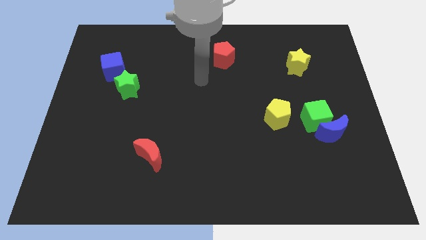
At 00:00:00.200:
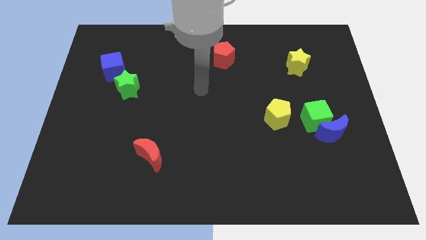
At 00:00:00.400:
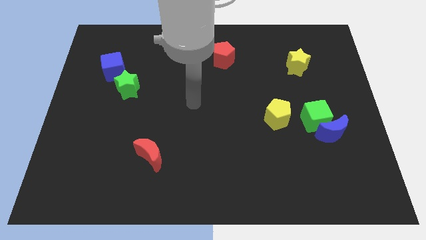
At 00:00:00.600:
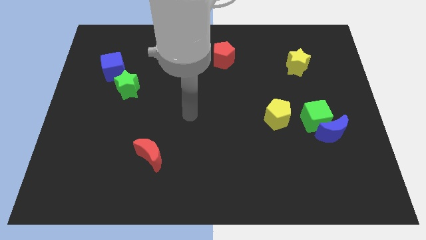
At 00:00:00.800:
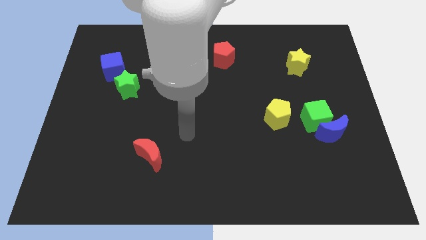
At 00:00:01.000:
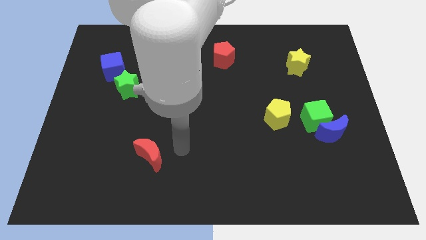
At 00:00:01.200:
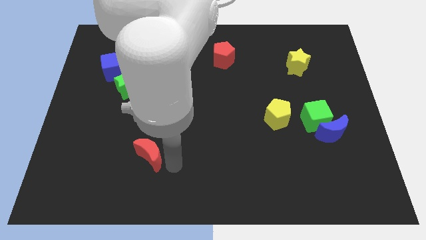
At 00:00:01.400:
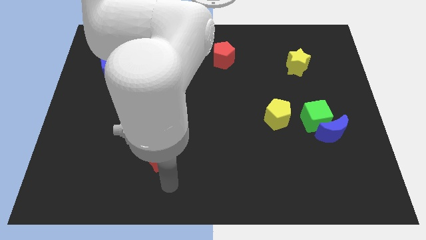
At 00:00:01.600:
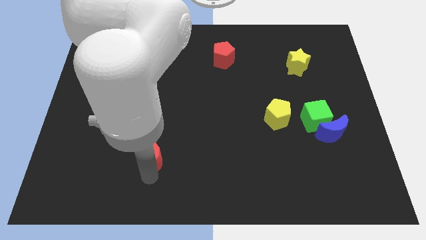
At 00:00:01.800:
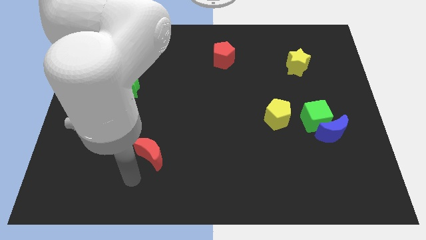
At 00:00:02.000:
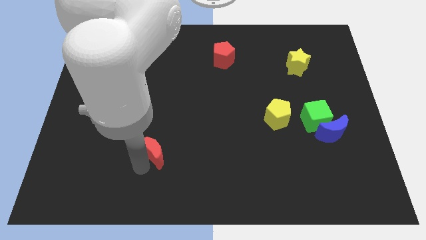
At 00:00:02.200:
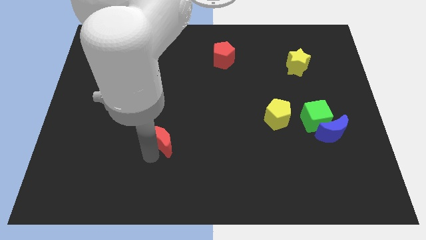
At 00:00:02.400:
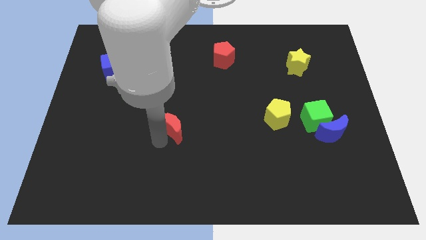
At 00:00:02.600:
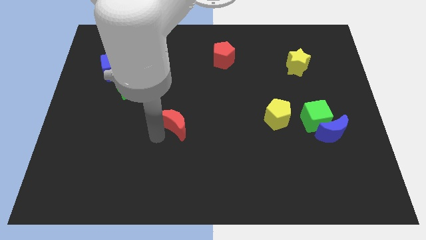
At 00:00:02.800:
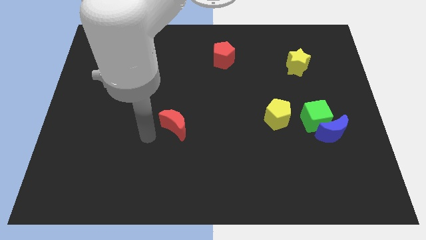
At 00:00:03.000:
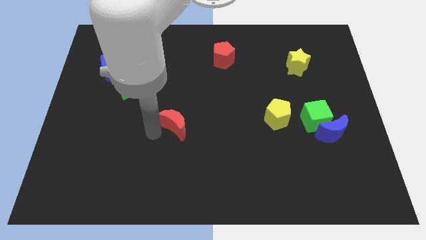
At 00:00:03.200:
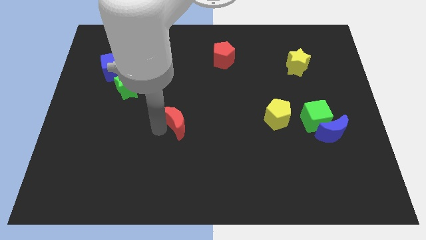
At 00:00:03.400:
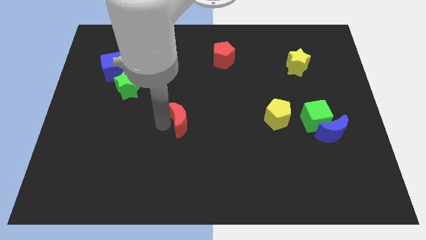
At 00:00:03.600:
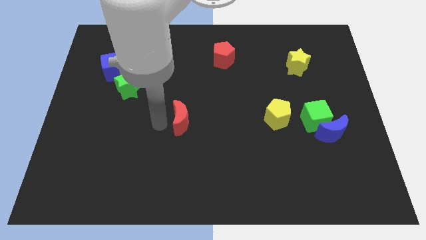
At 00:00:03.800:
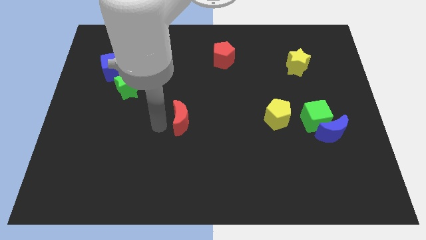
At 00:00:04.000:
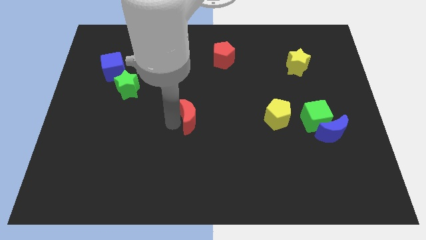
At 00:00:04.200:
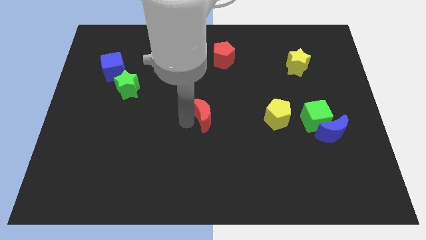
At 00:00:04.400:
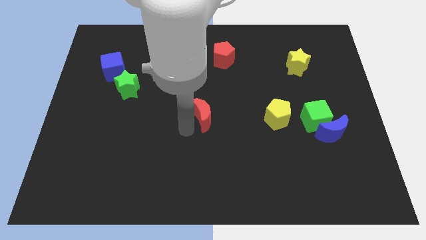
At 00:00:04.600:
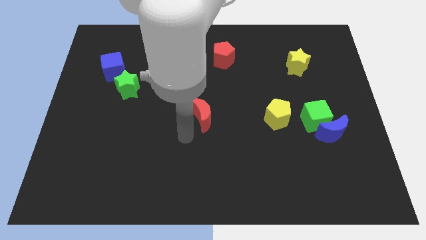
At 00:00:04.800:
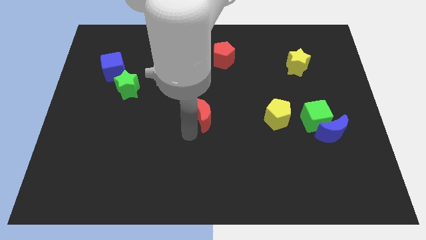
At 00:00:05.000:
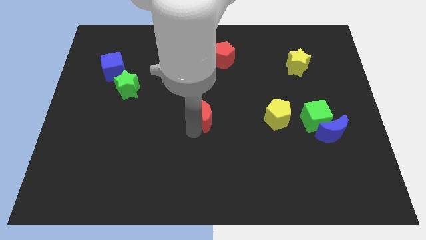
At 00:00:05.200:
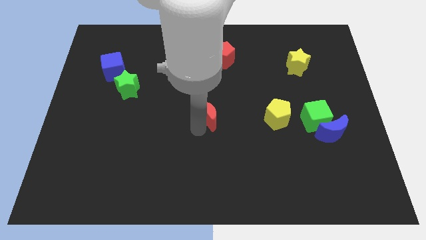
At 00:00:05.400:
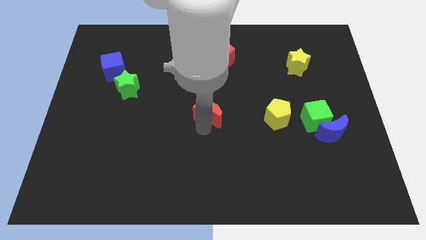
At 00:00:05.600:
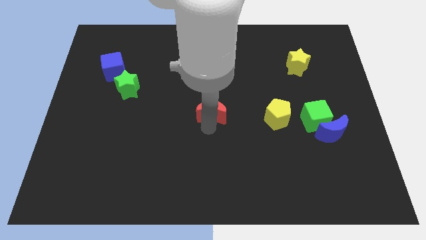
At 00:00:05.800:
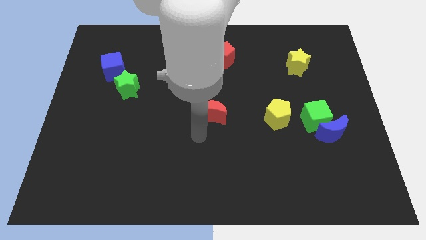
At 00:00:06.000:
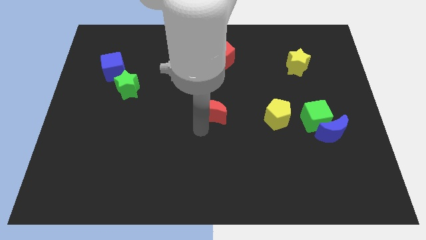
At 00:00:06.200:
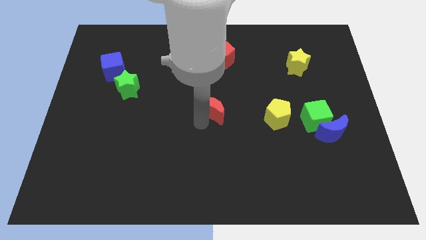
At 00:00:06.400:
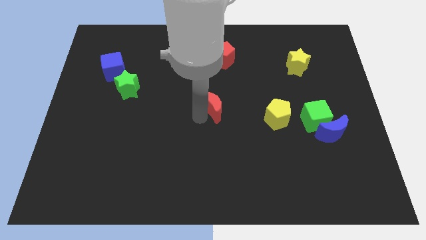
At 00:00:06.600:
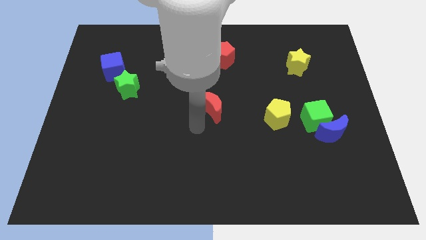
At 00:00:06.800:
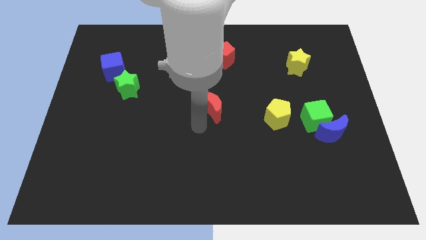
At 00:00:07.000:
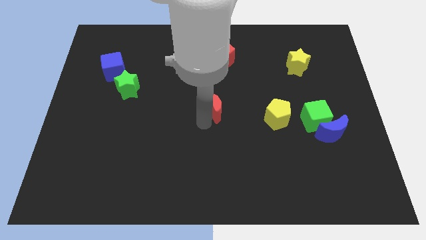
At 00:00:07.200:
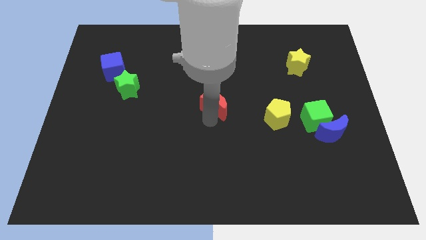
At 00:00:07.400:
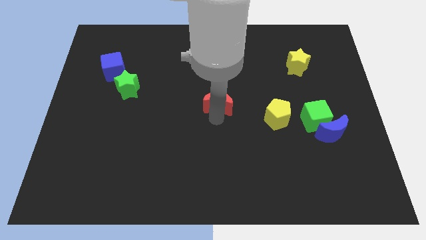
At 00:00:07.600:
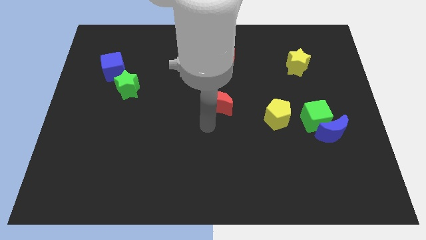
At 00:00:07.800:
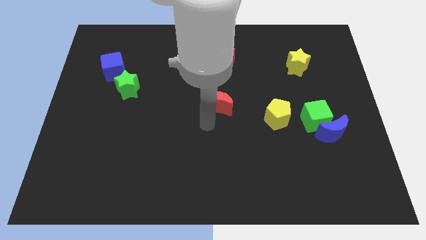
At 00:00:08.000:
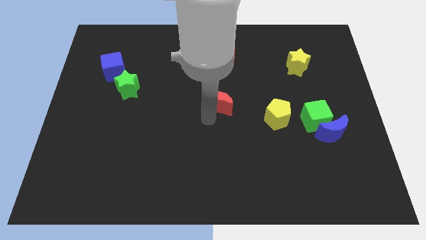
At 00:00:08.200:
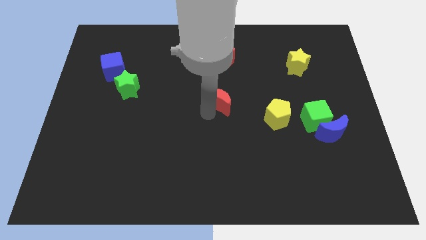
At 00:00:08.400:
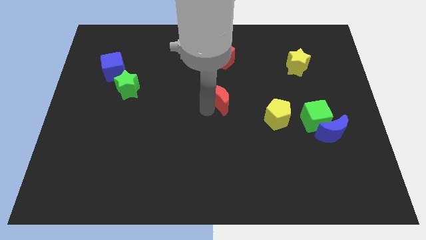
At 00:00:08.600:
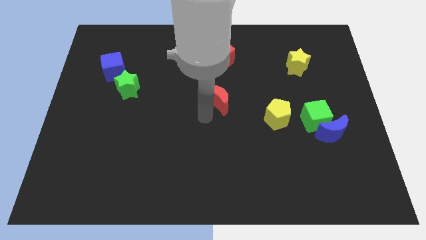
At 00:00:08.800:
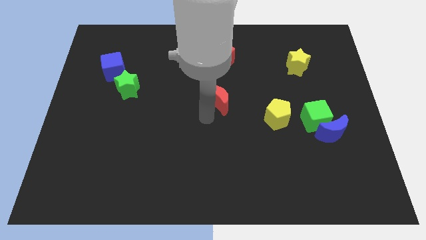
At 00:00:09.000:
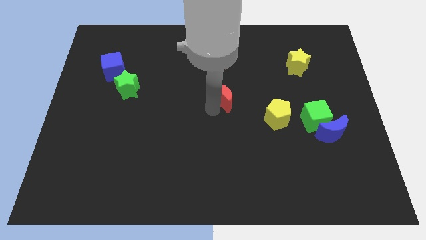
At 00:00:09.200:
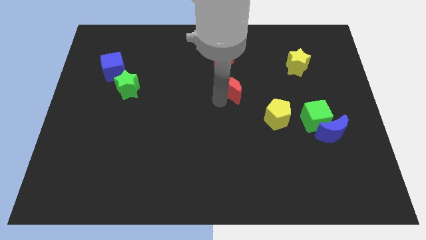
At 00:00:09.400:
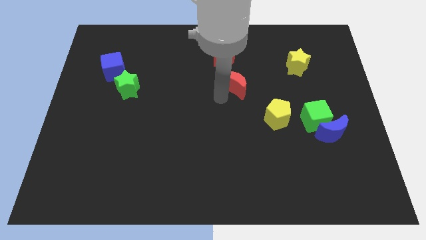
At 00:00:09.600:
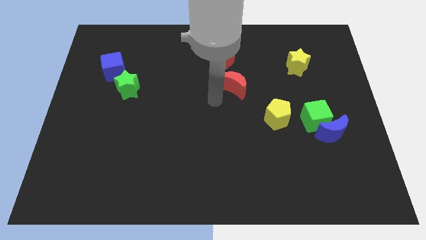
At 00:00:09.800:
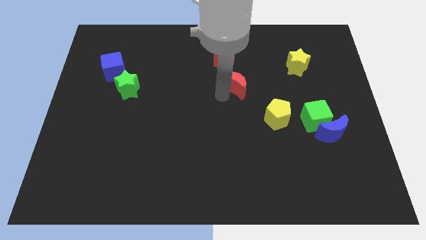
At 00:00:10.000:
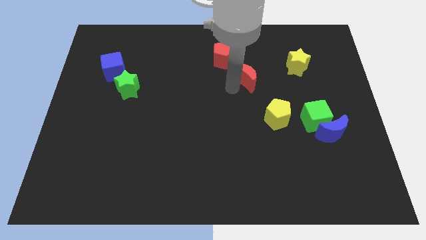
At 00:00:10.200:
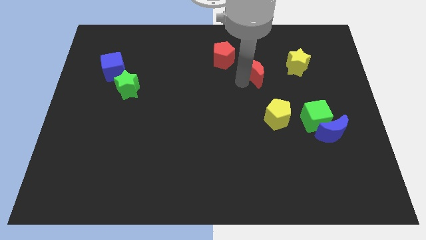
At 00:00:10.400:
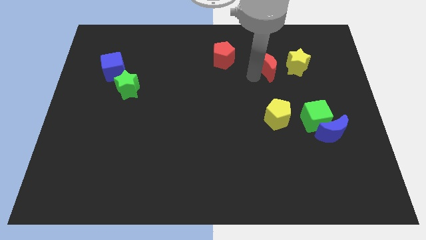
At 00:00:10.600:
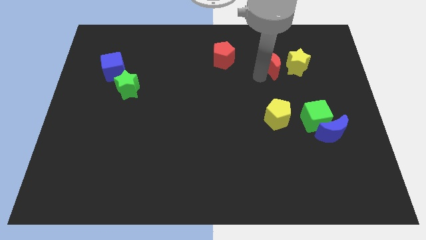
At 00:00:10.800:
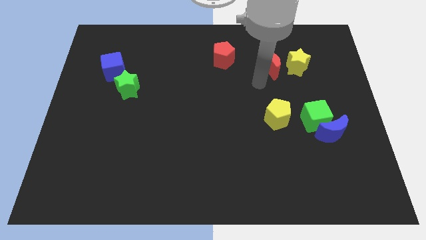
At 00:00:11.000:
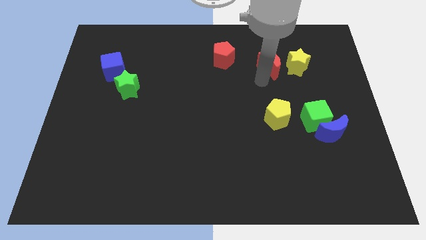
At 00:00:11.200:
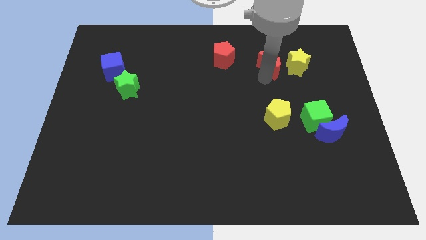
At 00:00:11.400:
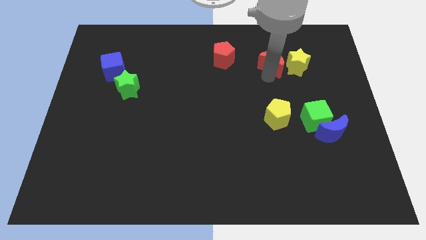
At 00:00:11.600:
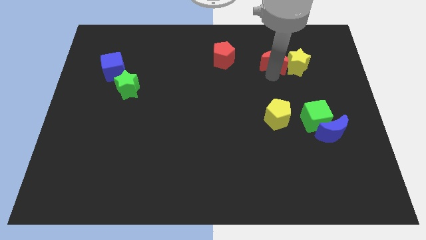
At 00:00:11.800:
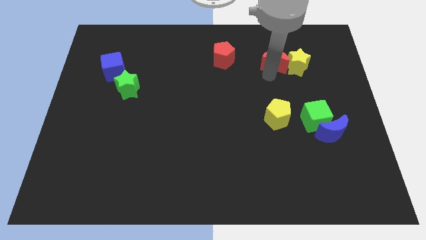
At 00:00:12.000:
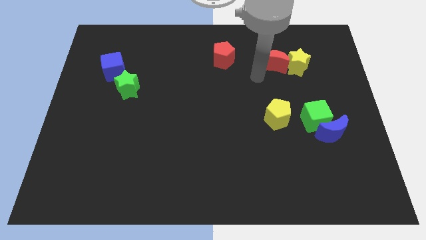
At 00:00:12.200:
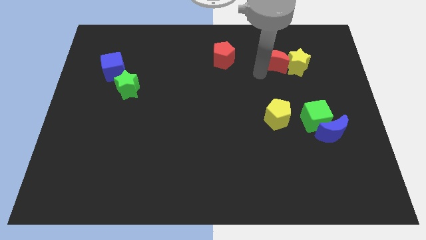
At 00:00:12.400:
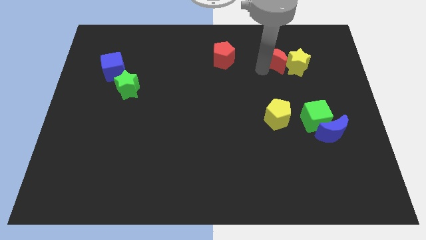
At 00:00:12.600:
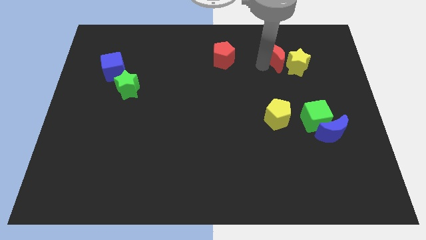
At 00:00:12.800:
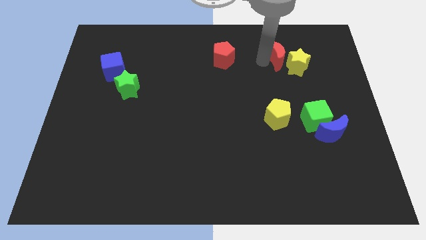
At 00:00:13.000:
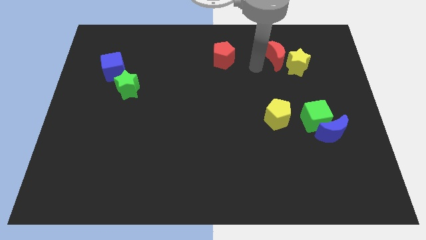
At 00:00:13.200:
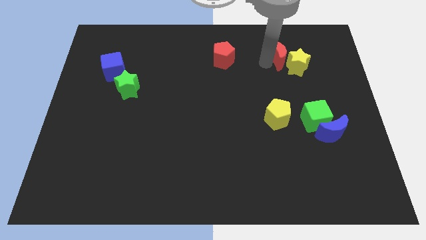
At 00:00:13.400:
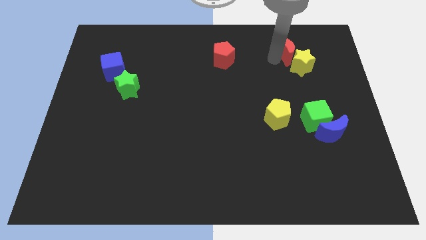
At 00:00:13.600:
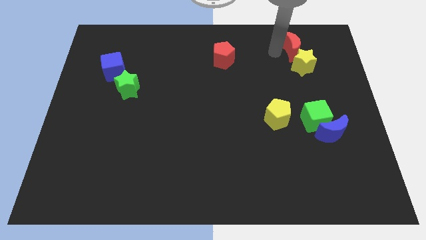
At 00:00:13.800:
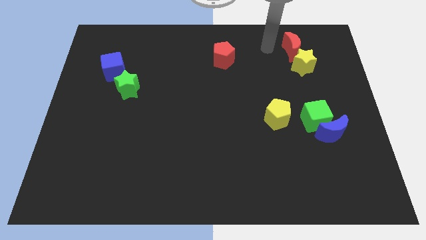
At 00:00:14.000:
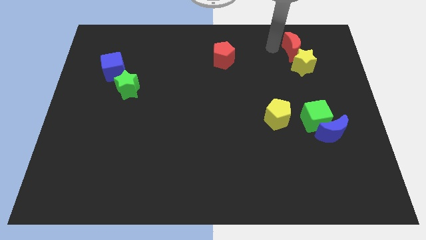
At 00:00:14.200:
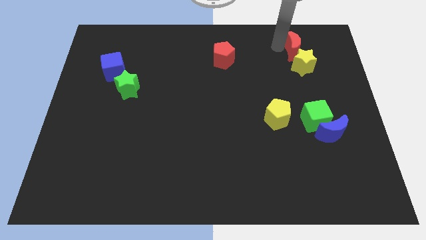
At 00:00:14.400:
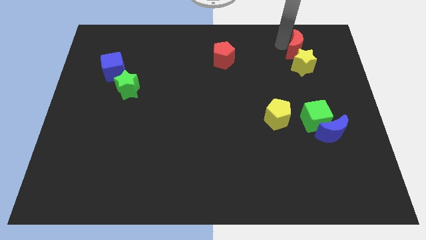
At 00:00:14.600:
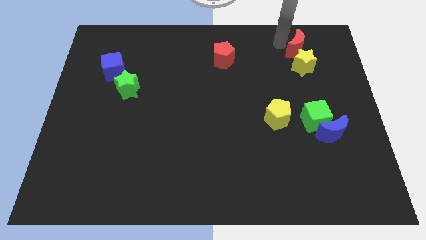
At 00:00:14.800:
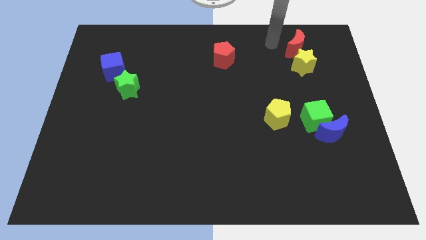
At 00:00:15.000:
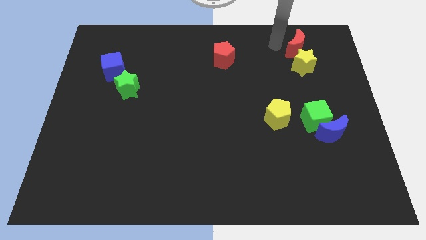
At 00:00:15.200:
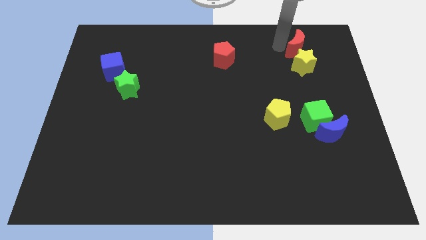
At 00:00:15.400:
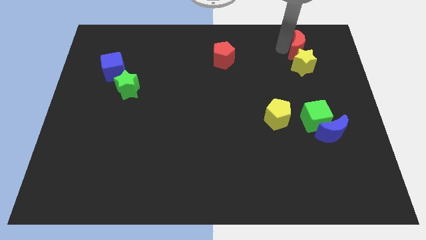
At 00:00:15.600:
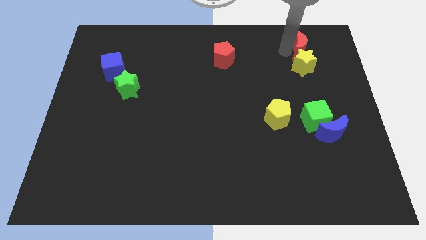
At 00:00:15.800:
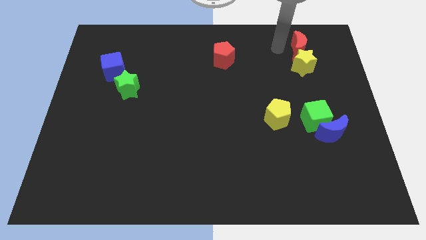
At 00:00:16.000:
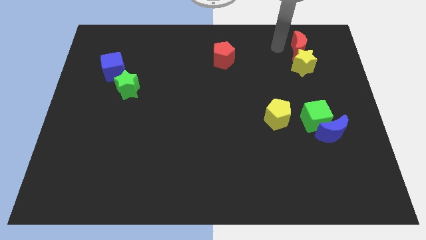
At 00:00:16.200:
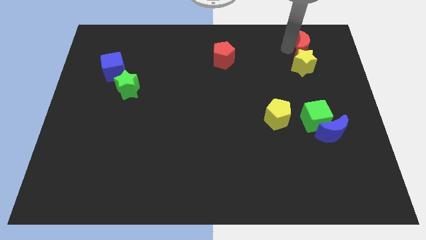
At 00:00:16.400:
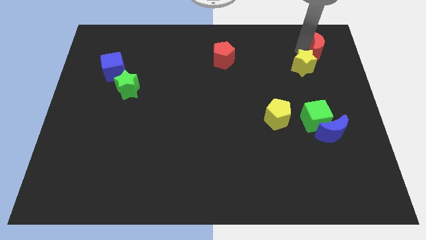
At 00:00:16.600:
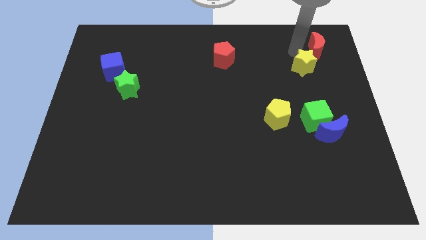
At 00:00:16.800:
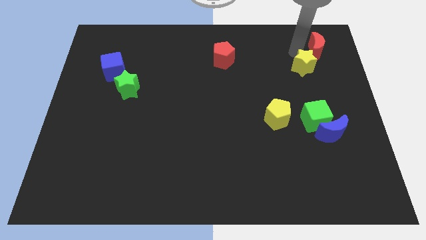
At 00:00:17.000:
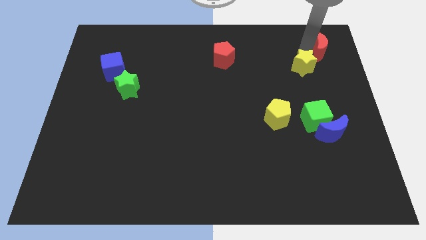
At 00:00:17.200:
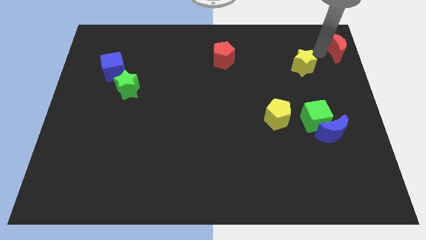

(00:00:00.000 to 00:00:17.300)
move the red moon to the upper right corner
